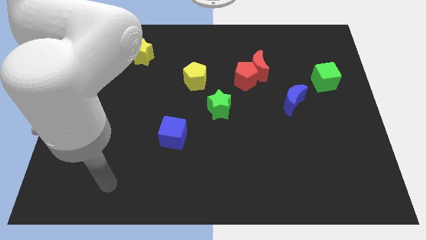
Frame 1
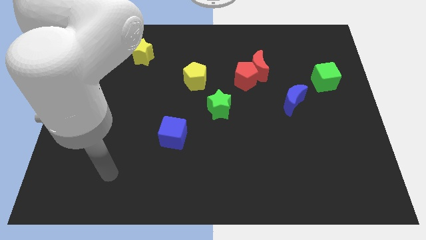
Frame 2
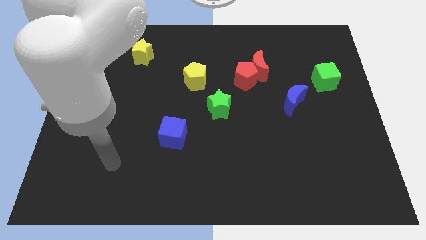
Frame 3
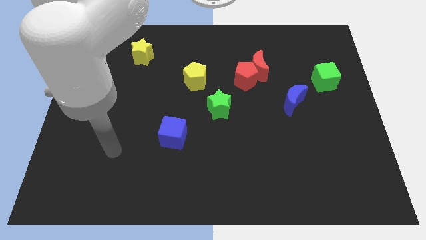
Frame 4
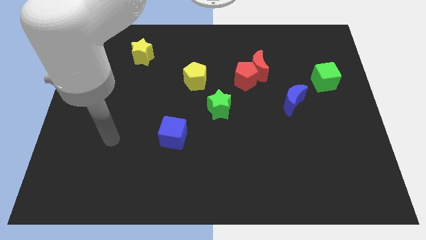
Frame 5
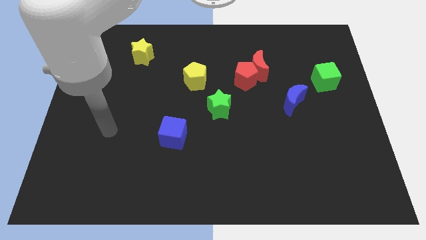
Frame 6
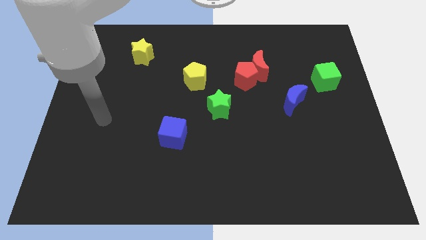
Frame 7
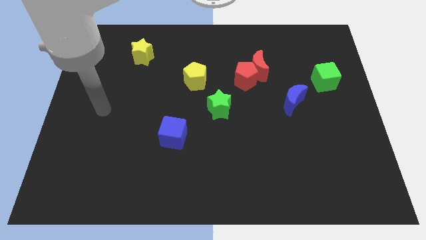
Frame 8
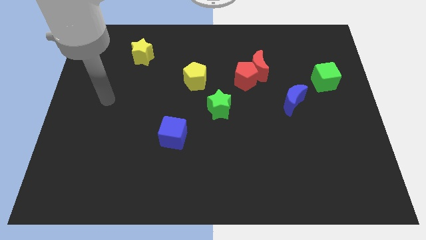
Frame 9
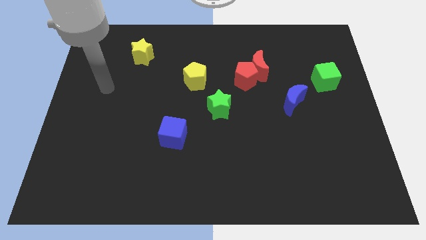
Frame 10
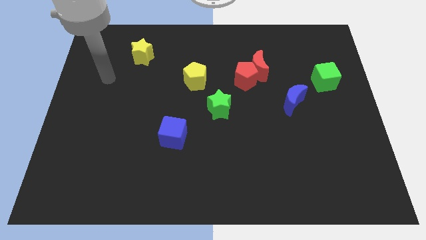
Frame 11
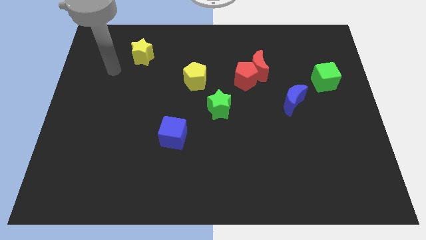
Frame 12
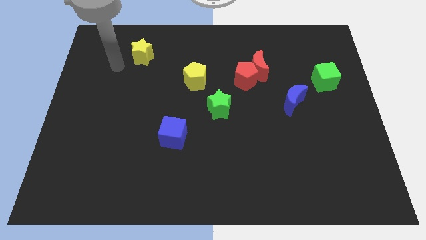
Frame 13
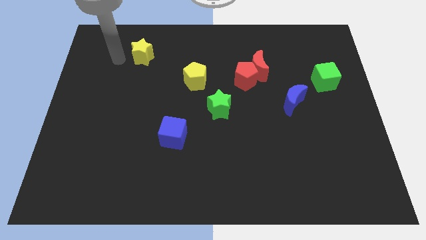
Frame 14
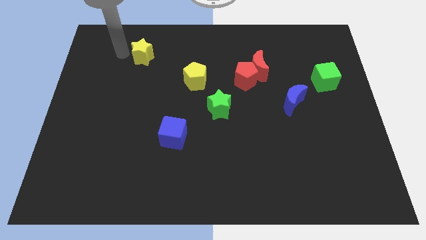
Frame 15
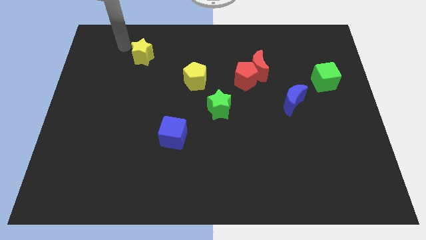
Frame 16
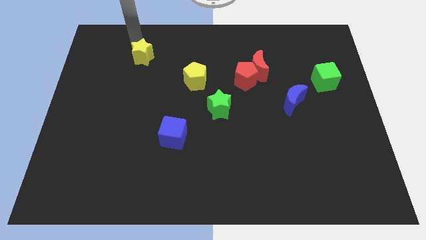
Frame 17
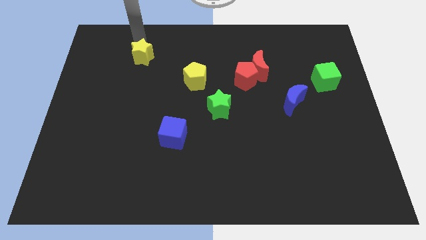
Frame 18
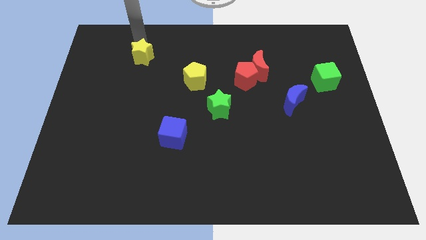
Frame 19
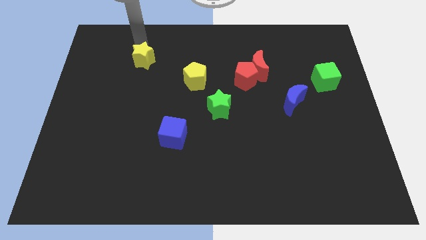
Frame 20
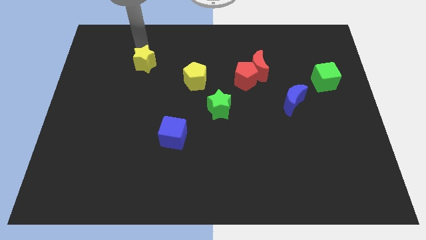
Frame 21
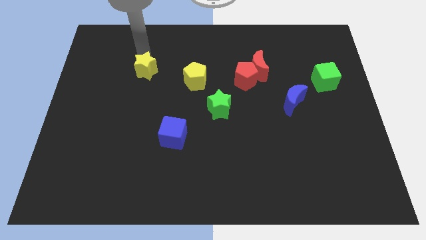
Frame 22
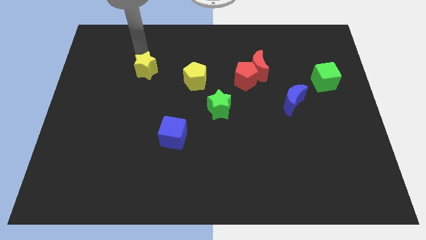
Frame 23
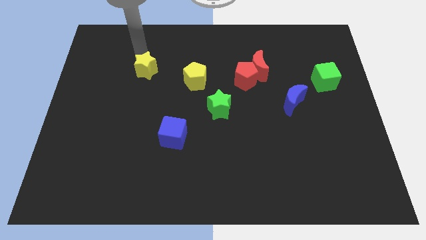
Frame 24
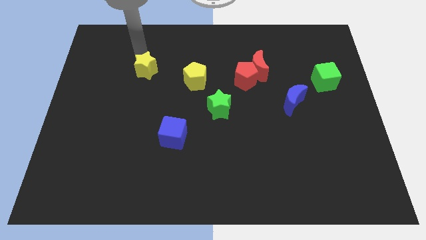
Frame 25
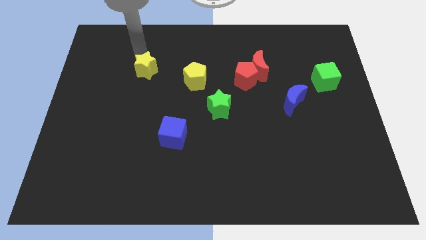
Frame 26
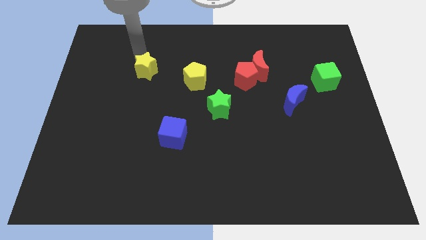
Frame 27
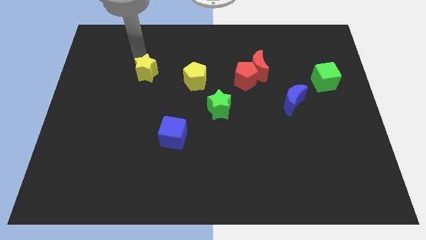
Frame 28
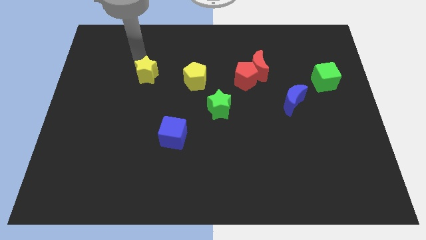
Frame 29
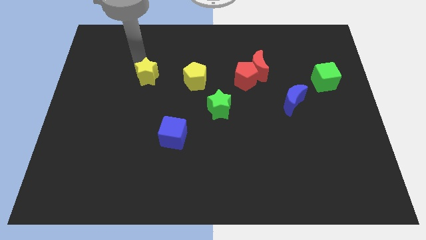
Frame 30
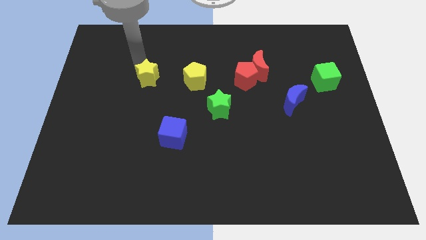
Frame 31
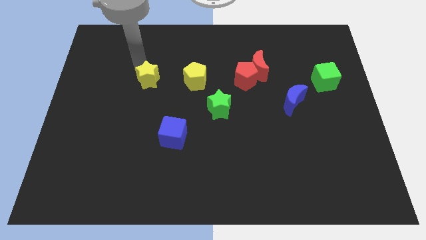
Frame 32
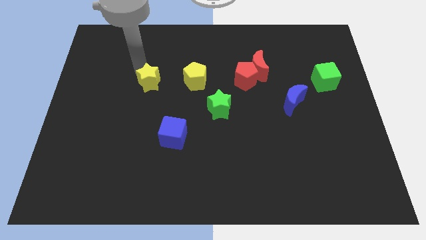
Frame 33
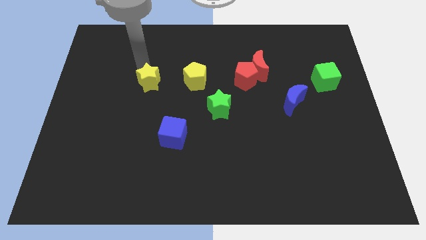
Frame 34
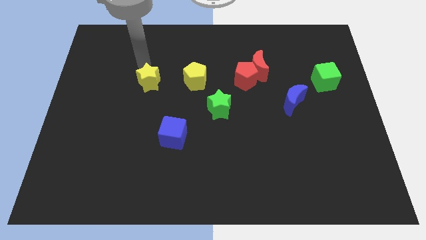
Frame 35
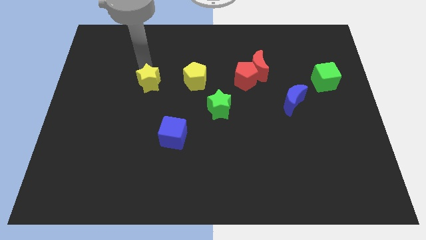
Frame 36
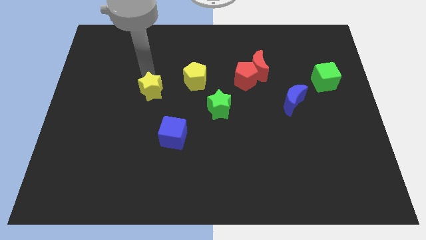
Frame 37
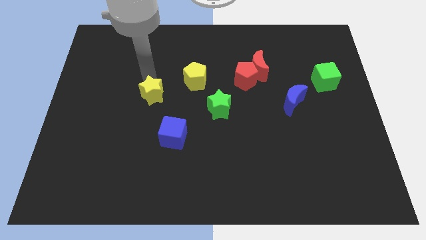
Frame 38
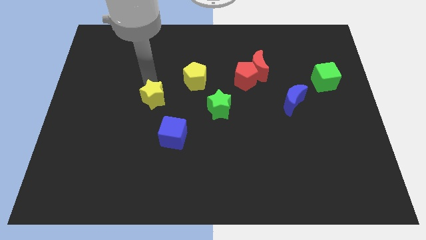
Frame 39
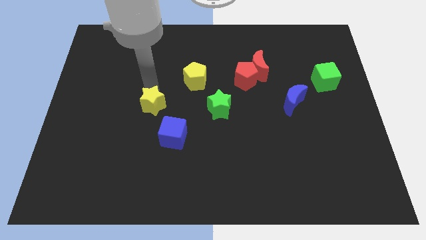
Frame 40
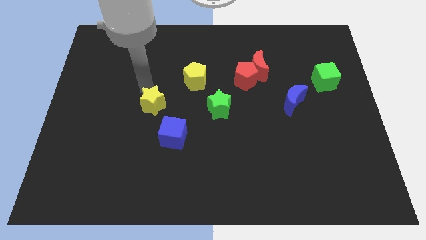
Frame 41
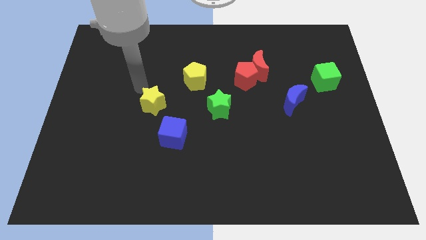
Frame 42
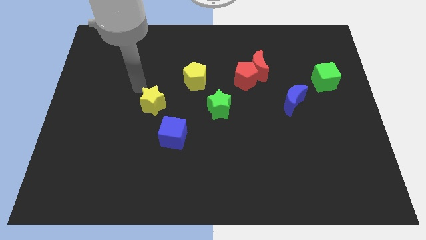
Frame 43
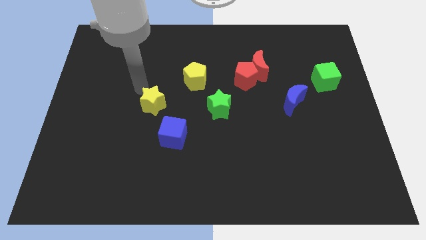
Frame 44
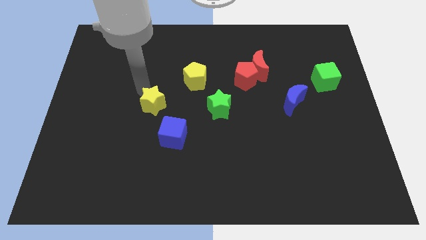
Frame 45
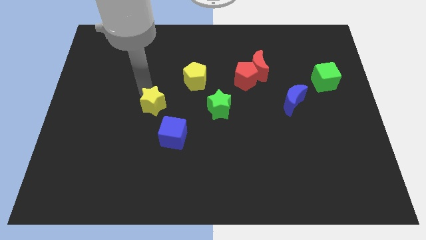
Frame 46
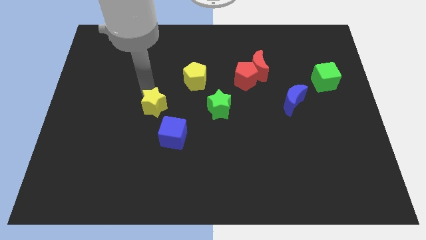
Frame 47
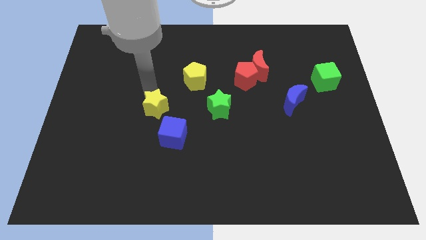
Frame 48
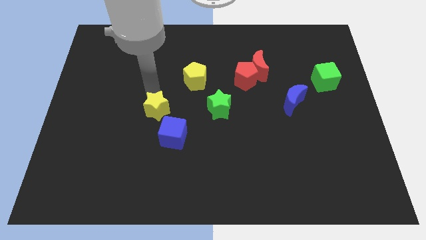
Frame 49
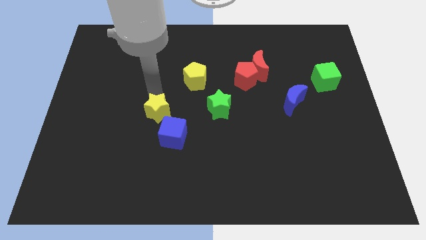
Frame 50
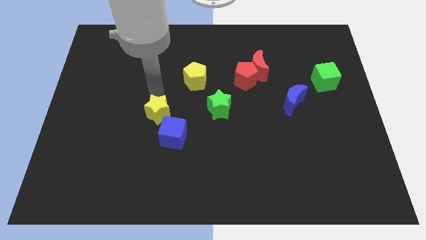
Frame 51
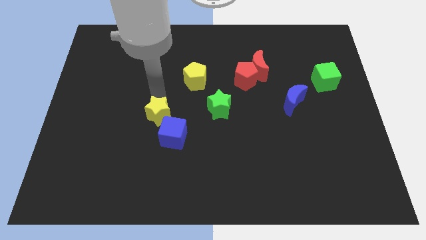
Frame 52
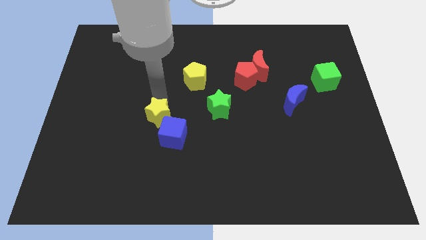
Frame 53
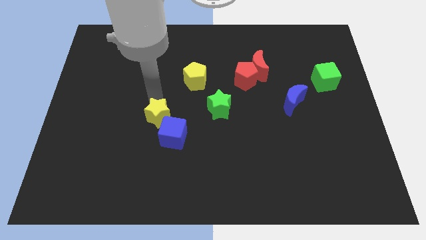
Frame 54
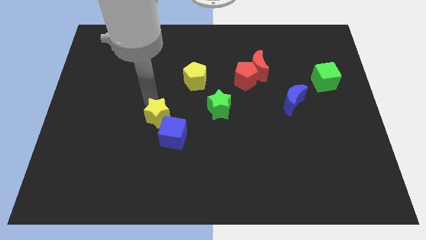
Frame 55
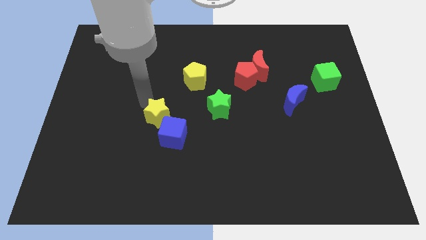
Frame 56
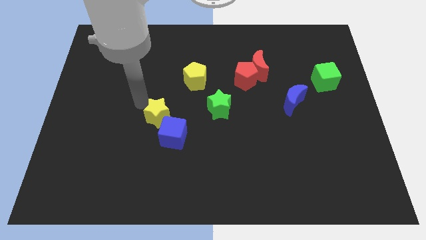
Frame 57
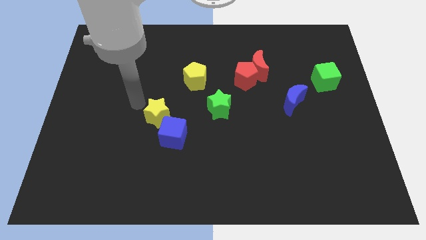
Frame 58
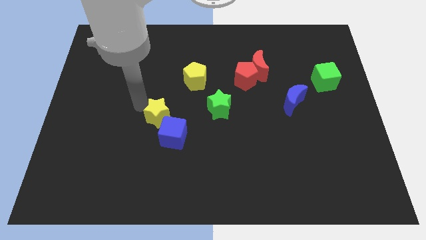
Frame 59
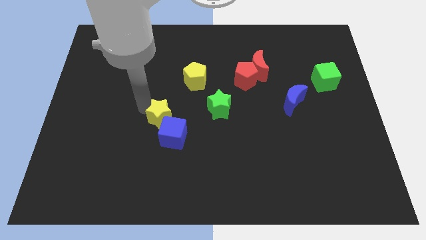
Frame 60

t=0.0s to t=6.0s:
push the yellow star towards the blue cube

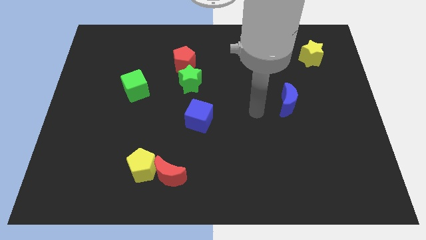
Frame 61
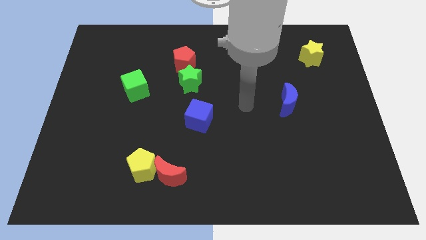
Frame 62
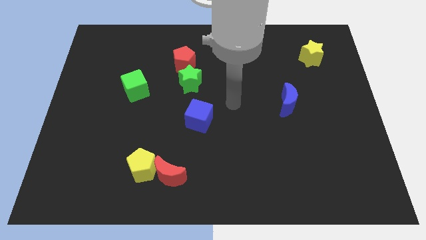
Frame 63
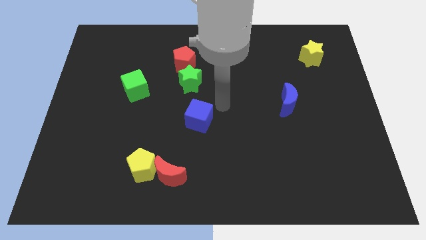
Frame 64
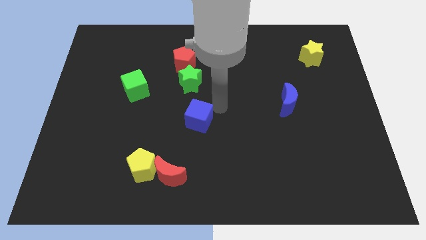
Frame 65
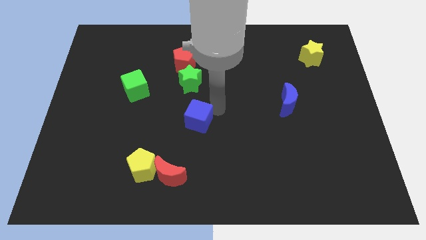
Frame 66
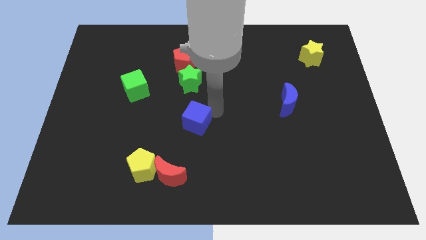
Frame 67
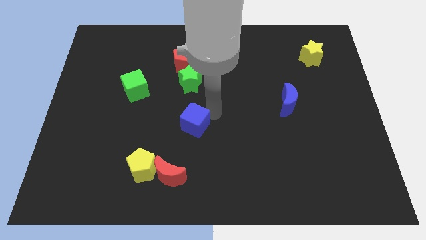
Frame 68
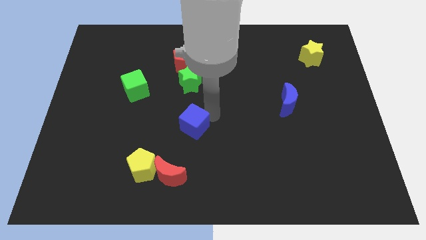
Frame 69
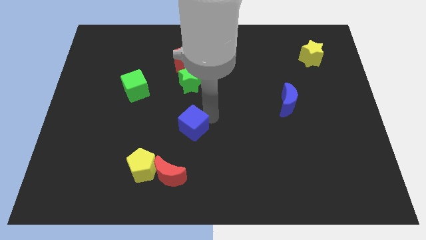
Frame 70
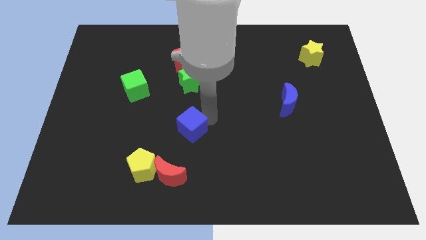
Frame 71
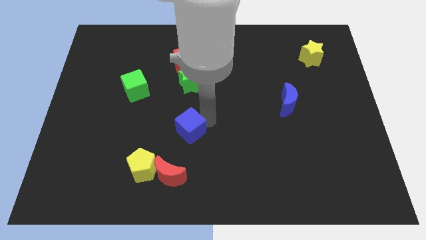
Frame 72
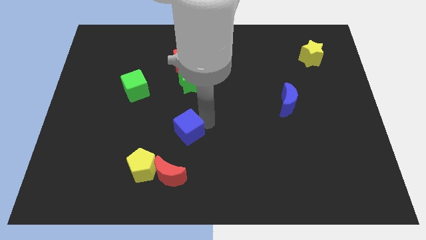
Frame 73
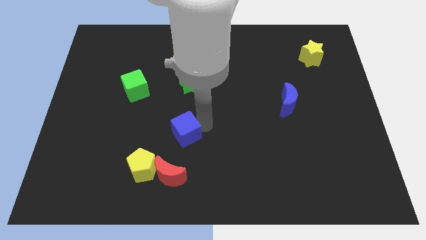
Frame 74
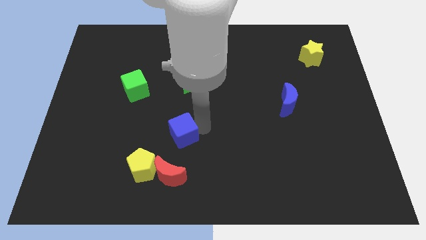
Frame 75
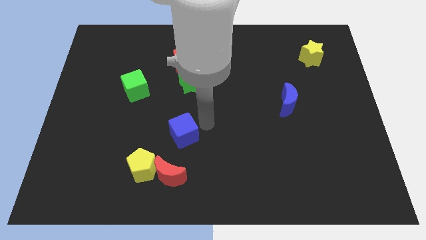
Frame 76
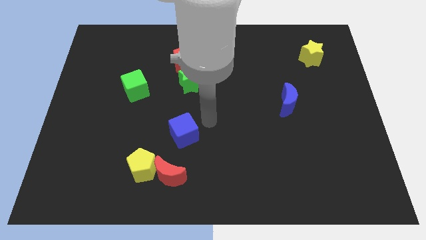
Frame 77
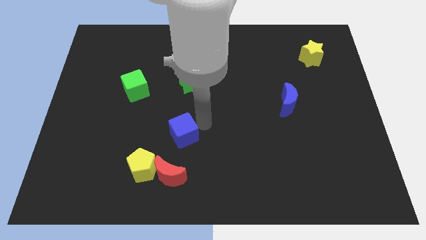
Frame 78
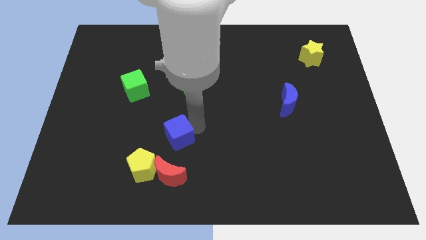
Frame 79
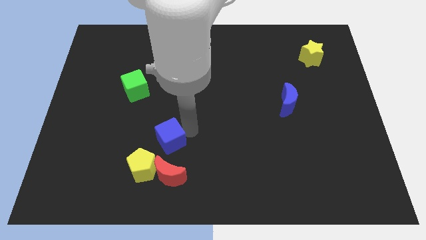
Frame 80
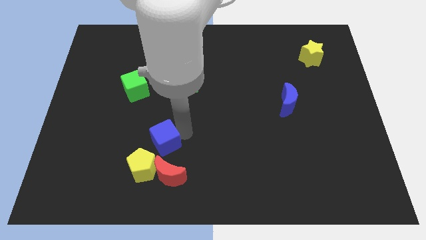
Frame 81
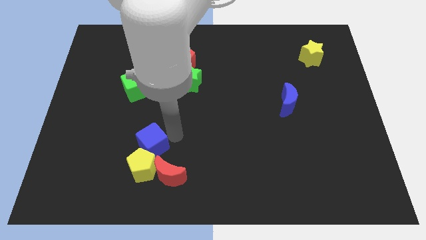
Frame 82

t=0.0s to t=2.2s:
push the blue cube next to the yellow pentagon
